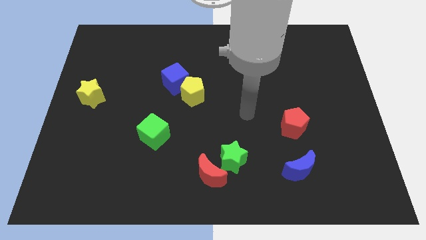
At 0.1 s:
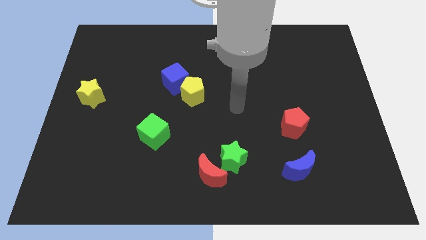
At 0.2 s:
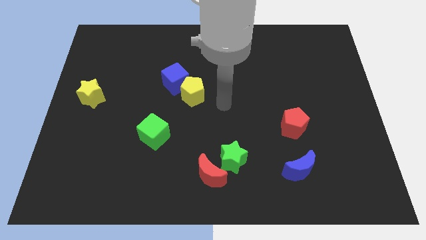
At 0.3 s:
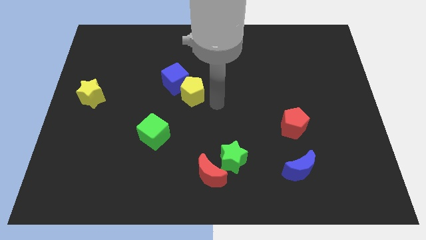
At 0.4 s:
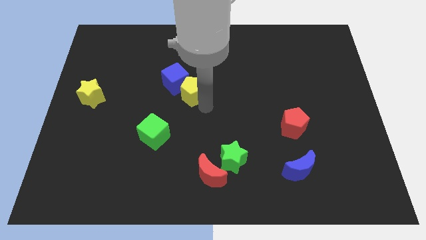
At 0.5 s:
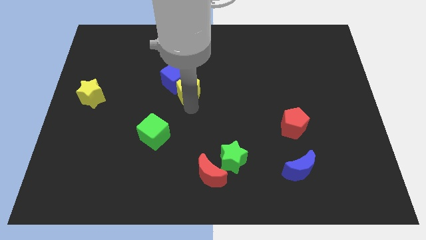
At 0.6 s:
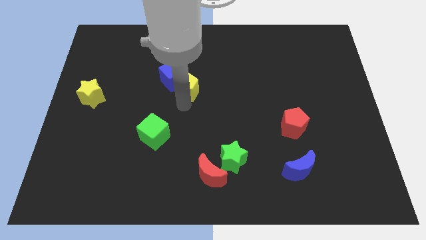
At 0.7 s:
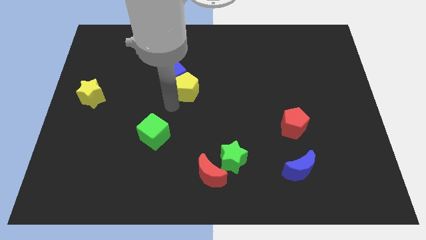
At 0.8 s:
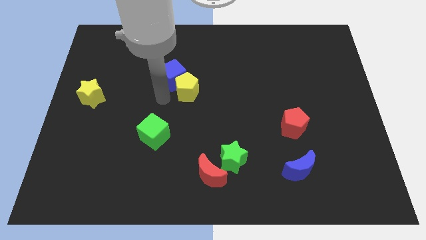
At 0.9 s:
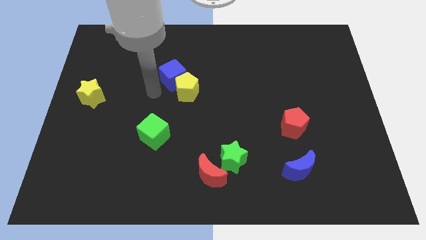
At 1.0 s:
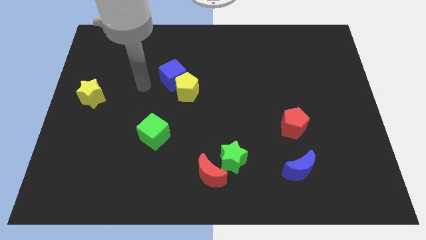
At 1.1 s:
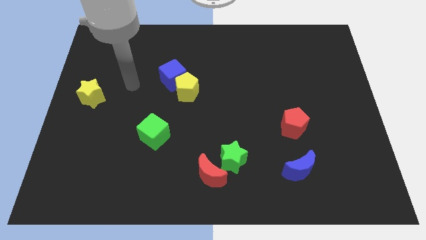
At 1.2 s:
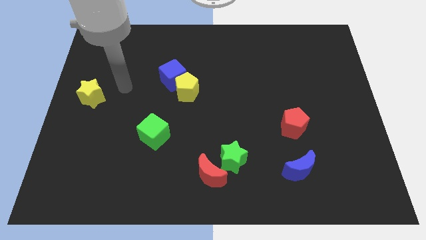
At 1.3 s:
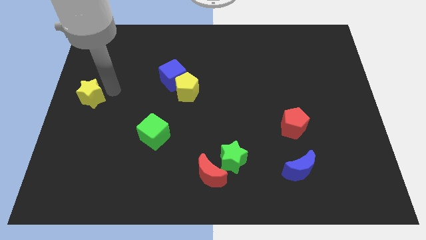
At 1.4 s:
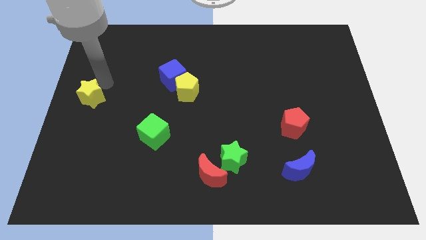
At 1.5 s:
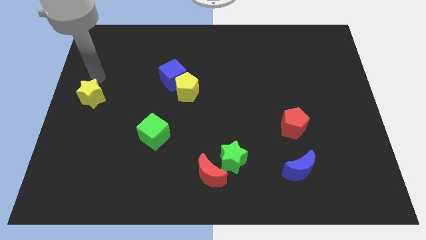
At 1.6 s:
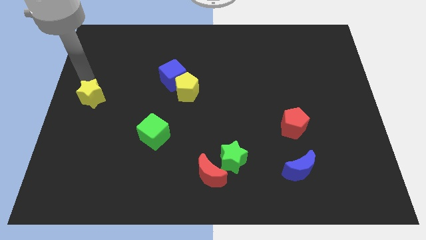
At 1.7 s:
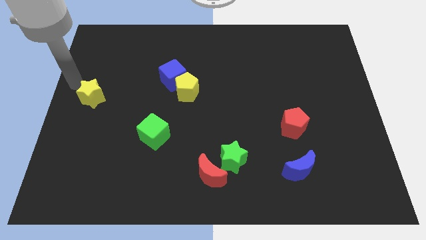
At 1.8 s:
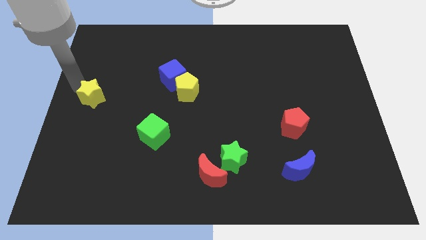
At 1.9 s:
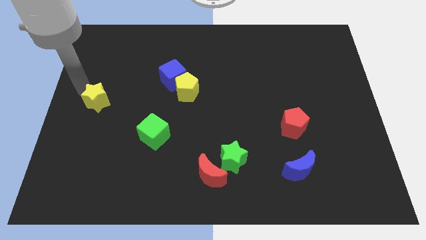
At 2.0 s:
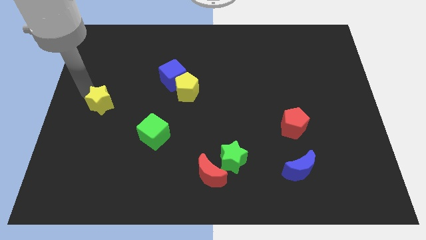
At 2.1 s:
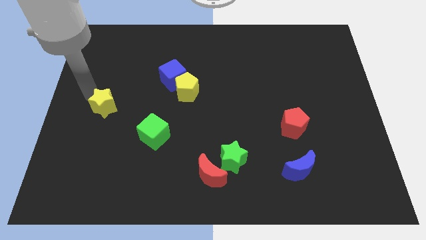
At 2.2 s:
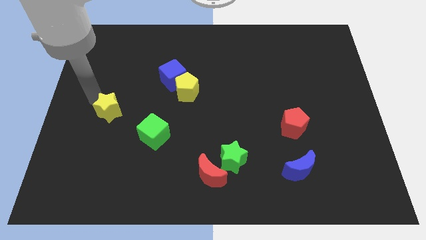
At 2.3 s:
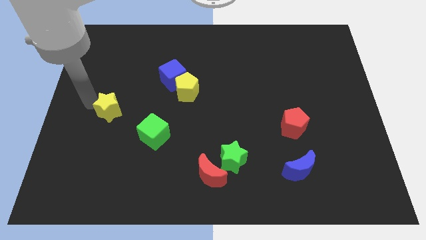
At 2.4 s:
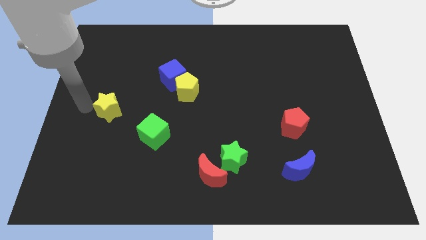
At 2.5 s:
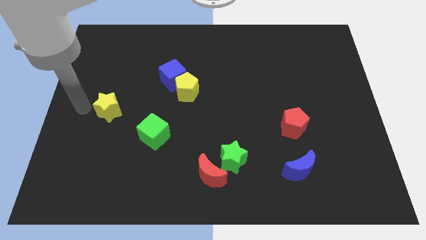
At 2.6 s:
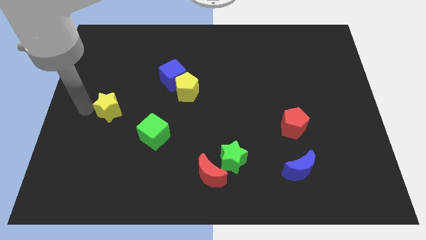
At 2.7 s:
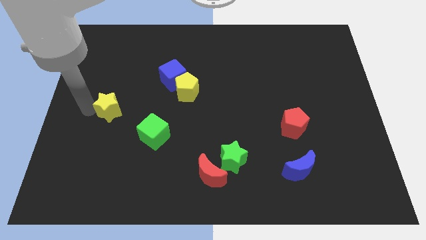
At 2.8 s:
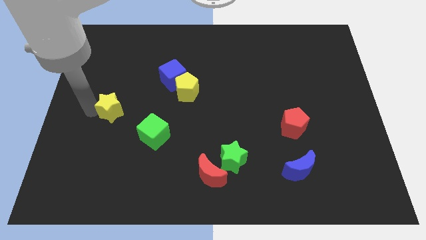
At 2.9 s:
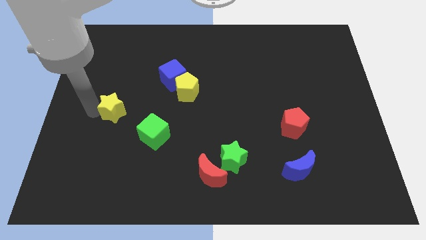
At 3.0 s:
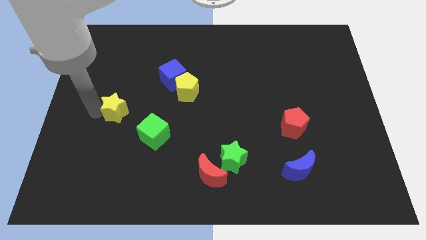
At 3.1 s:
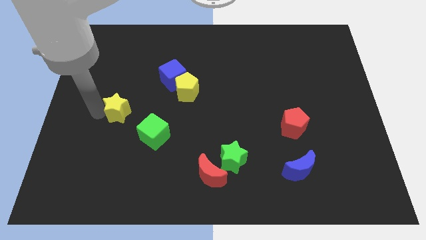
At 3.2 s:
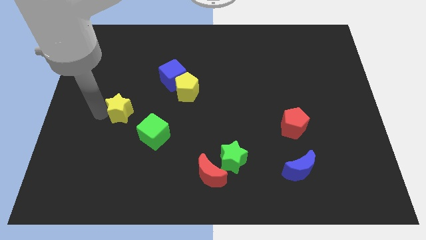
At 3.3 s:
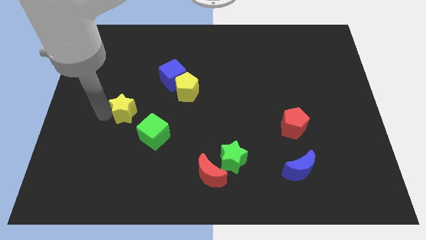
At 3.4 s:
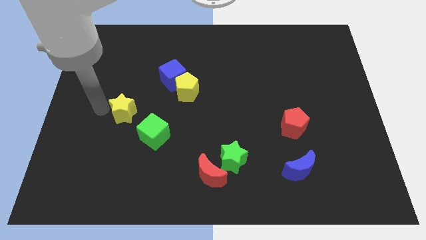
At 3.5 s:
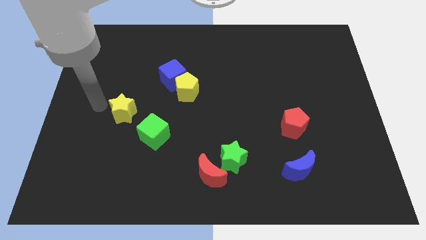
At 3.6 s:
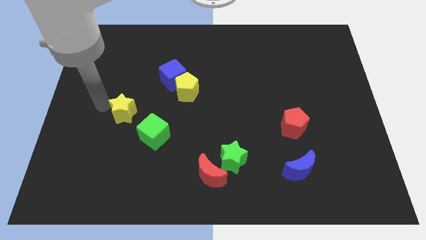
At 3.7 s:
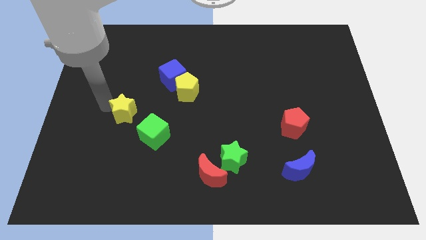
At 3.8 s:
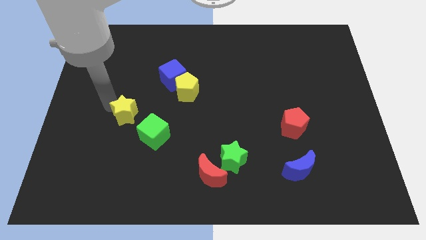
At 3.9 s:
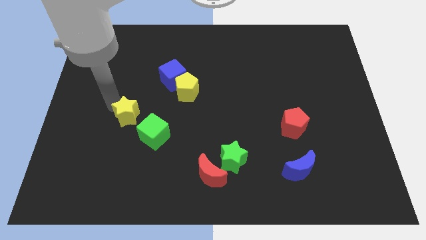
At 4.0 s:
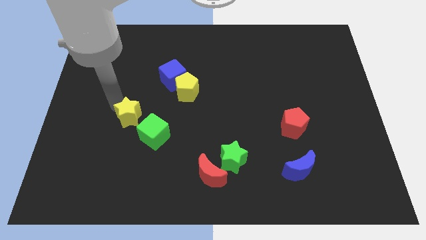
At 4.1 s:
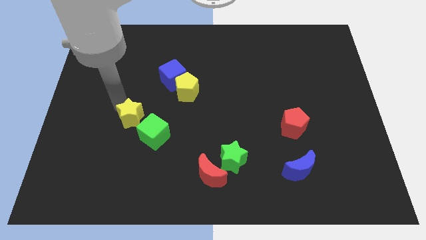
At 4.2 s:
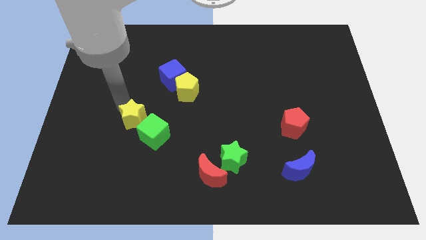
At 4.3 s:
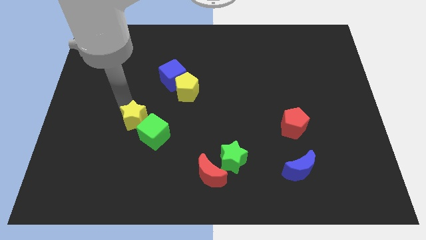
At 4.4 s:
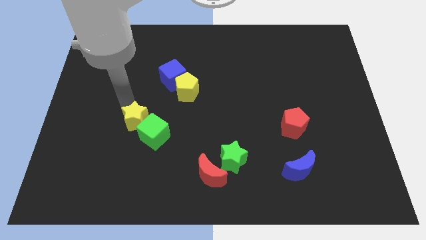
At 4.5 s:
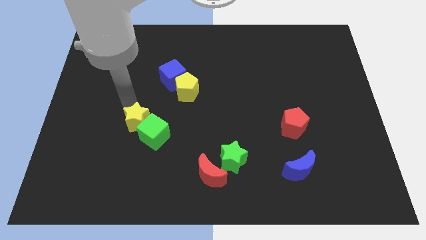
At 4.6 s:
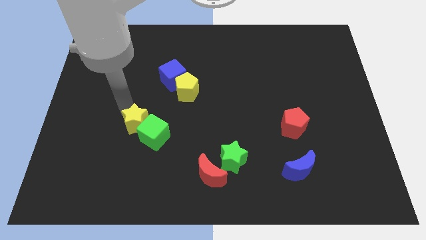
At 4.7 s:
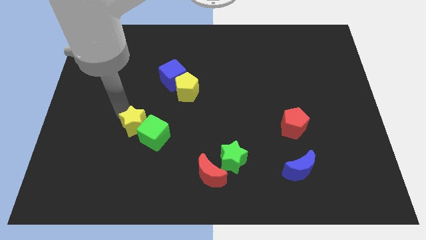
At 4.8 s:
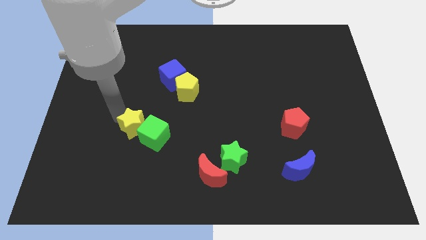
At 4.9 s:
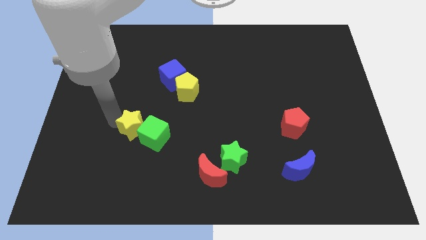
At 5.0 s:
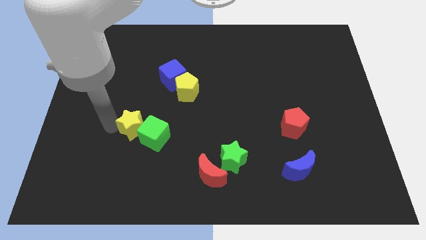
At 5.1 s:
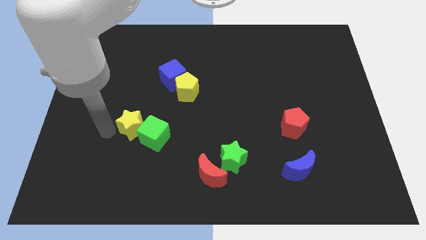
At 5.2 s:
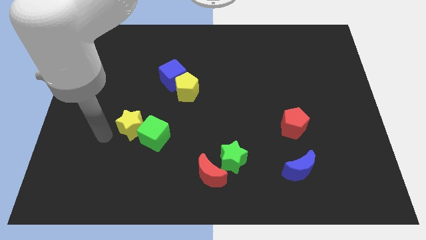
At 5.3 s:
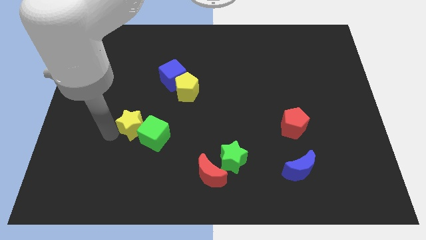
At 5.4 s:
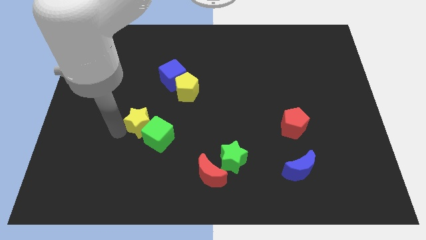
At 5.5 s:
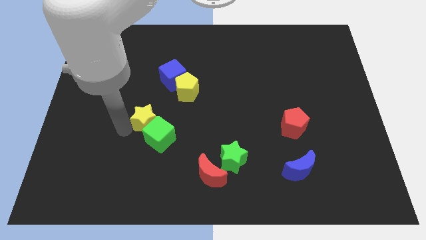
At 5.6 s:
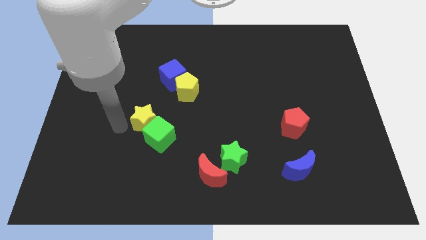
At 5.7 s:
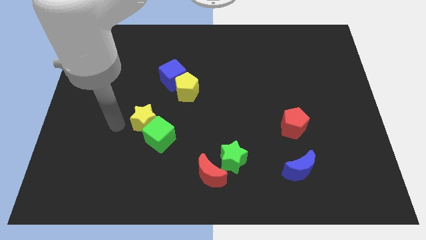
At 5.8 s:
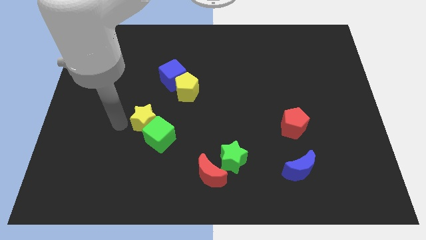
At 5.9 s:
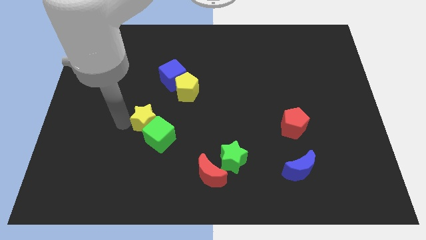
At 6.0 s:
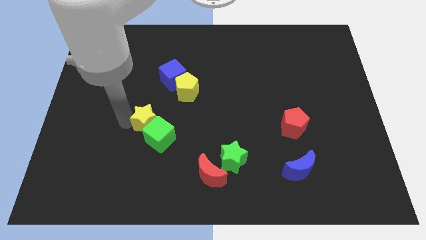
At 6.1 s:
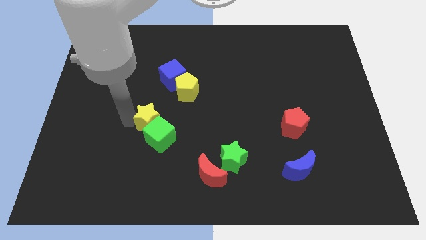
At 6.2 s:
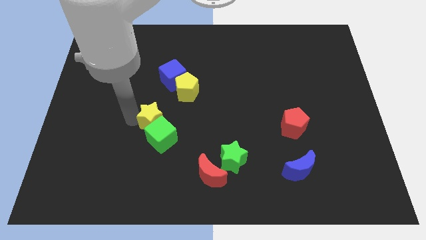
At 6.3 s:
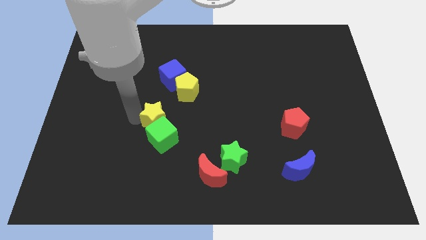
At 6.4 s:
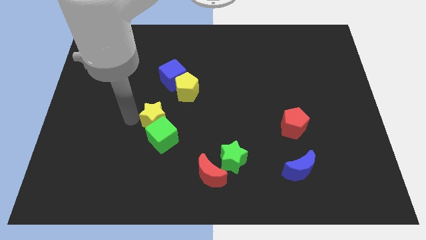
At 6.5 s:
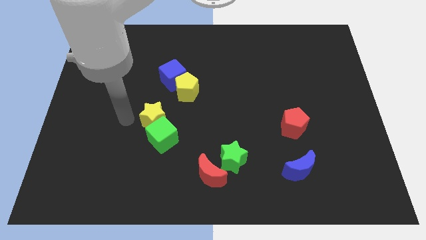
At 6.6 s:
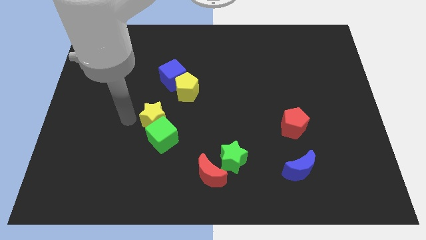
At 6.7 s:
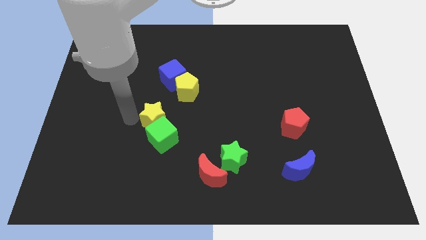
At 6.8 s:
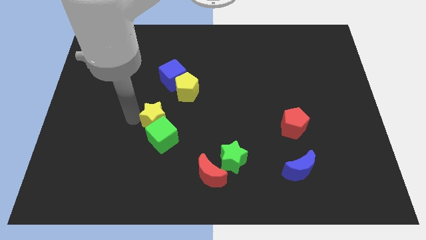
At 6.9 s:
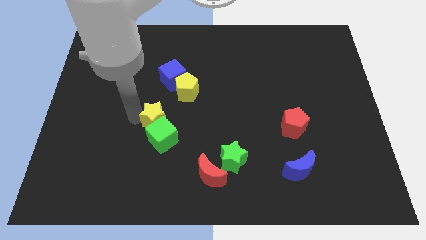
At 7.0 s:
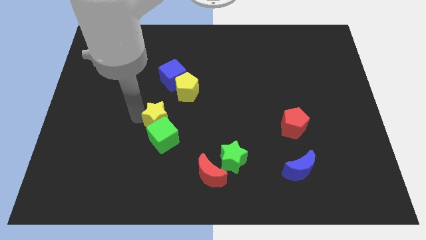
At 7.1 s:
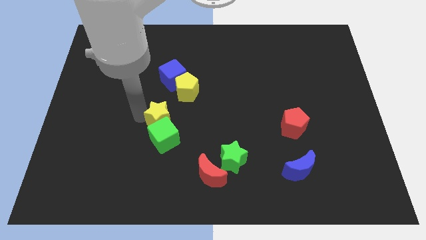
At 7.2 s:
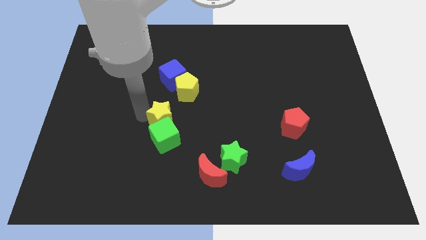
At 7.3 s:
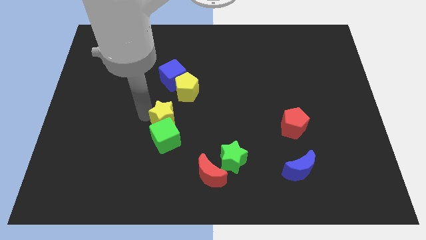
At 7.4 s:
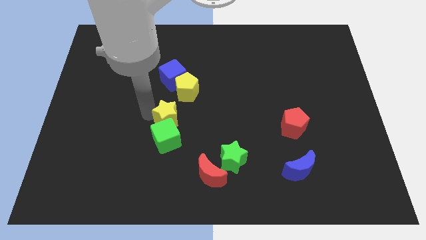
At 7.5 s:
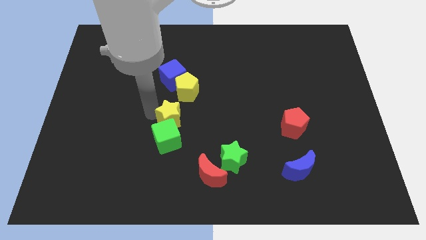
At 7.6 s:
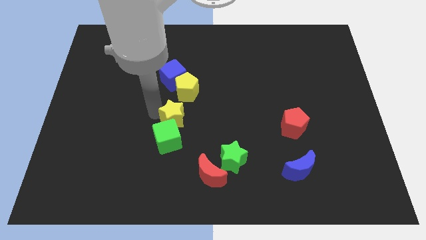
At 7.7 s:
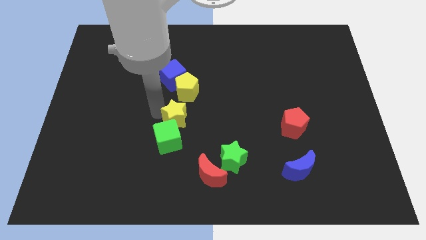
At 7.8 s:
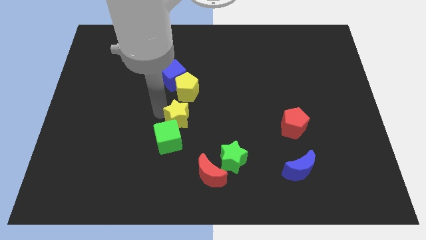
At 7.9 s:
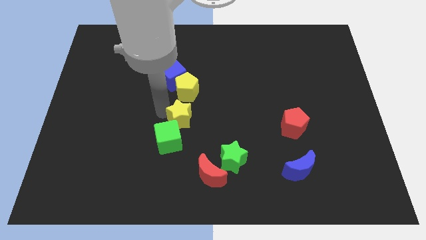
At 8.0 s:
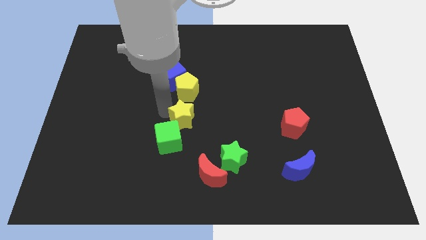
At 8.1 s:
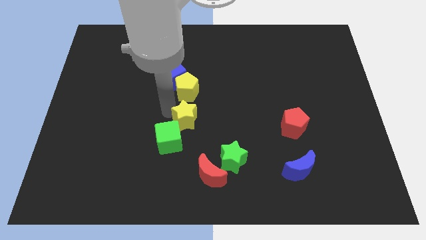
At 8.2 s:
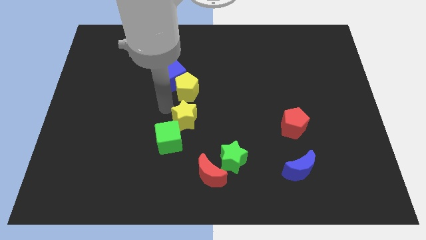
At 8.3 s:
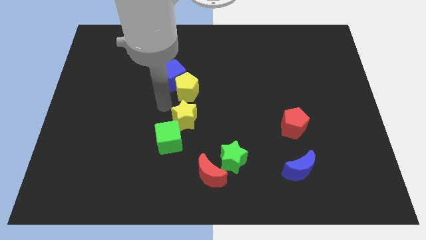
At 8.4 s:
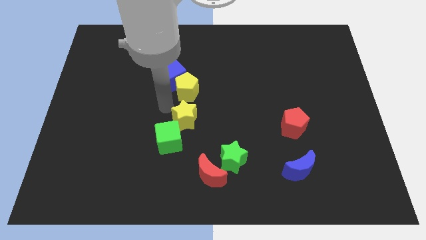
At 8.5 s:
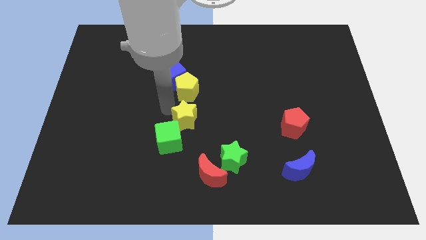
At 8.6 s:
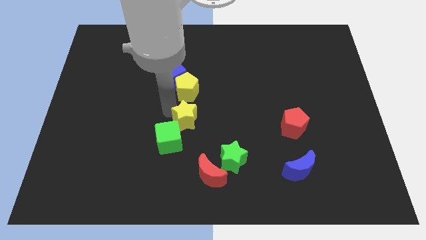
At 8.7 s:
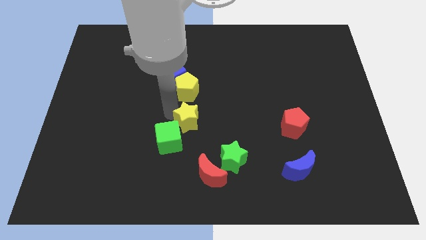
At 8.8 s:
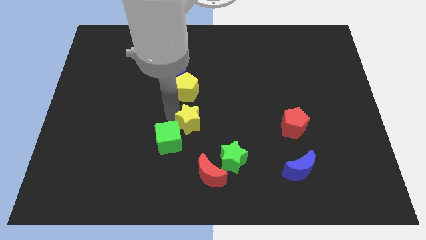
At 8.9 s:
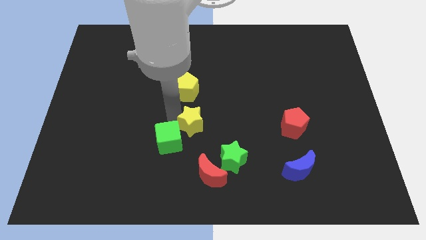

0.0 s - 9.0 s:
push the yellow star to the top of the red moon
